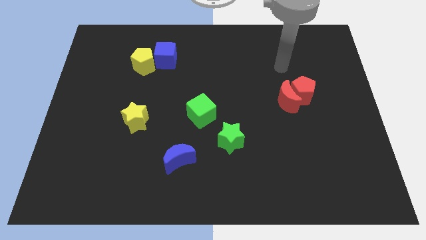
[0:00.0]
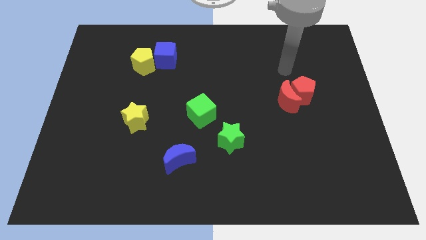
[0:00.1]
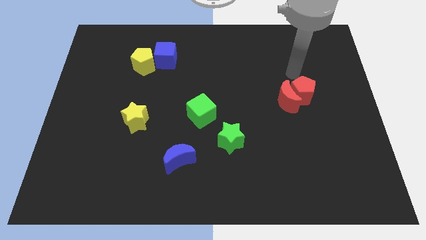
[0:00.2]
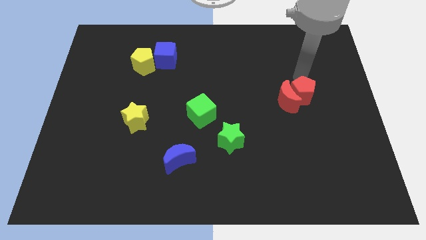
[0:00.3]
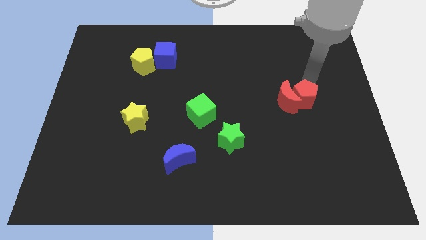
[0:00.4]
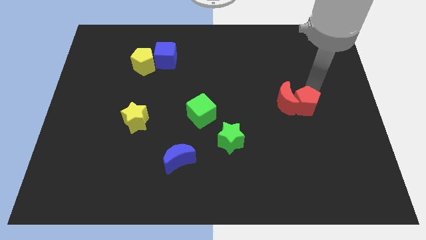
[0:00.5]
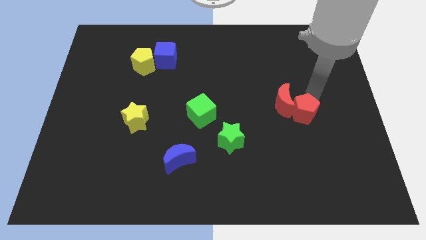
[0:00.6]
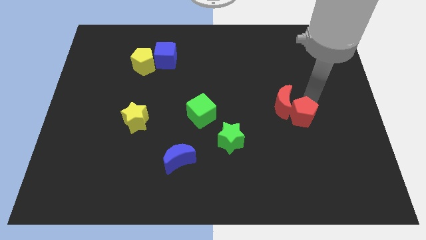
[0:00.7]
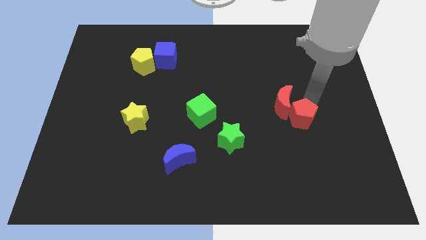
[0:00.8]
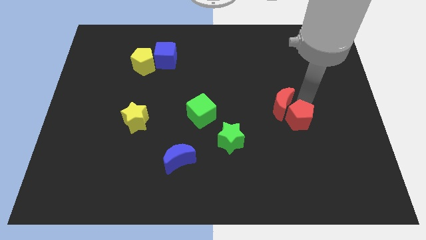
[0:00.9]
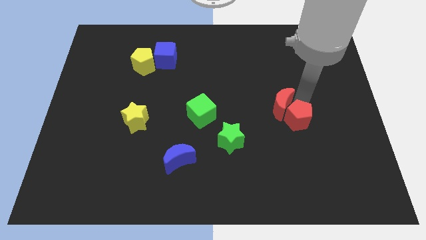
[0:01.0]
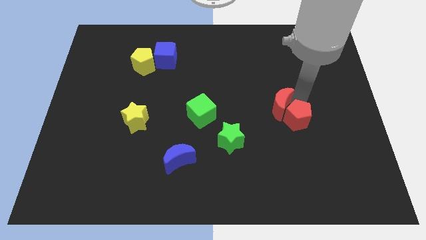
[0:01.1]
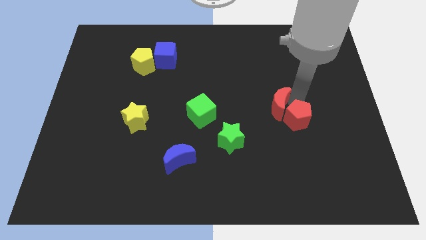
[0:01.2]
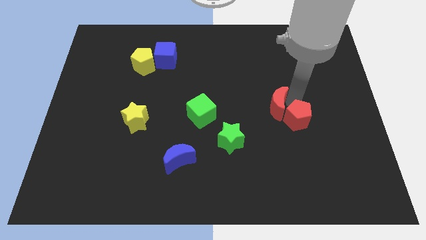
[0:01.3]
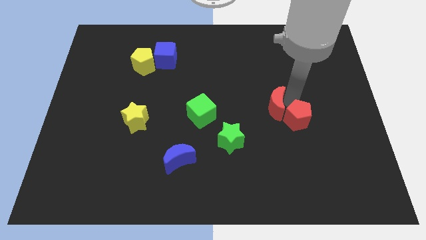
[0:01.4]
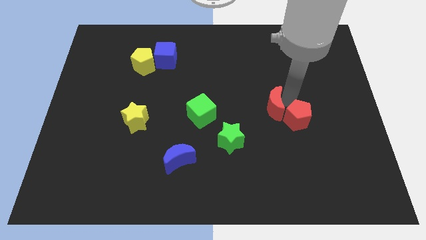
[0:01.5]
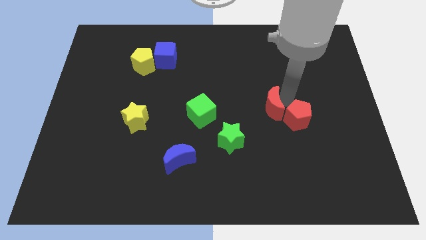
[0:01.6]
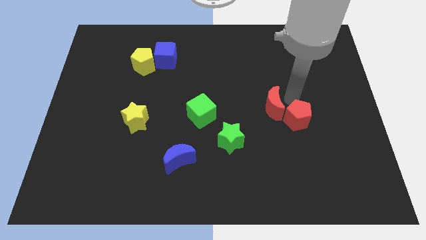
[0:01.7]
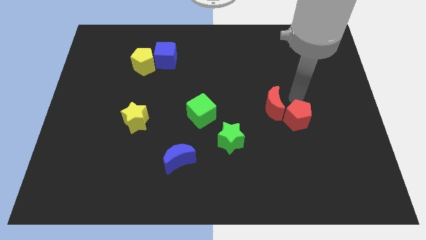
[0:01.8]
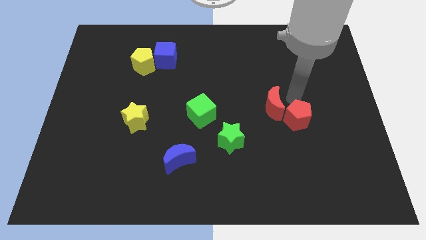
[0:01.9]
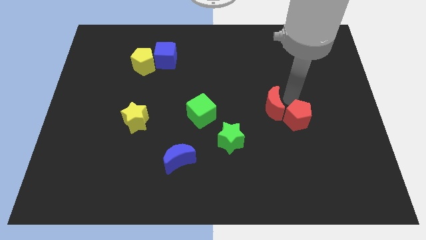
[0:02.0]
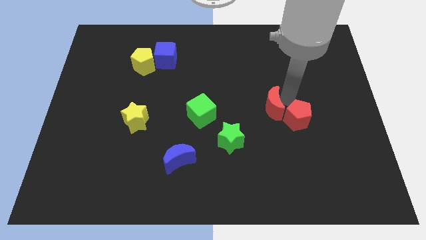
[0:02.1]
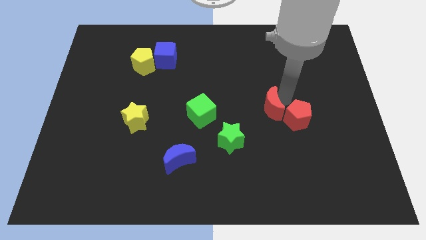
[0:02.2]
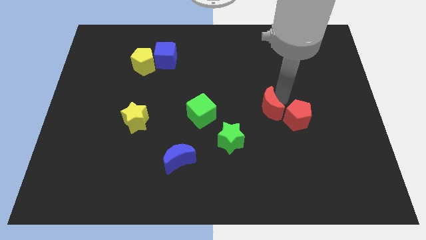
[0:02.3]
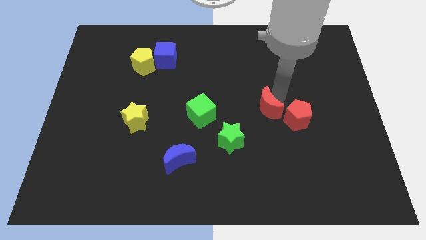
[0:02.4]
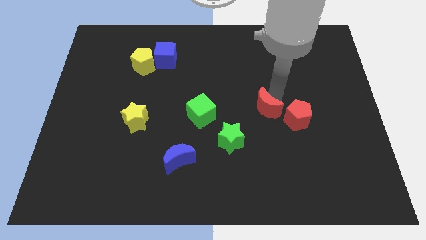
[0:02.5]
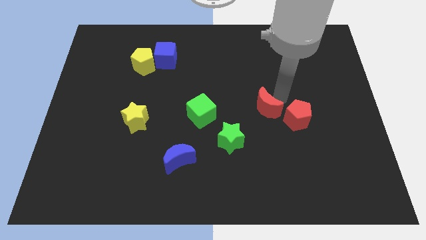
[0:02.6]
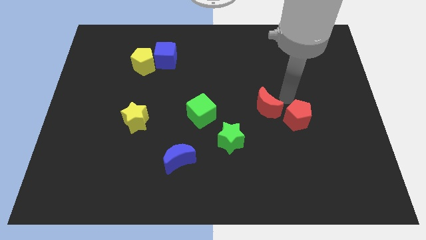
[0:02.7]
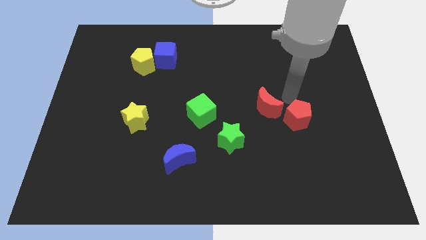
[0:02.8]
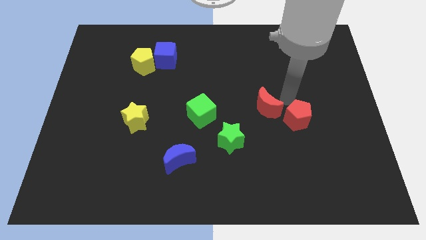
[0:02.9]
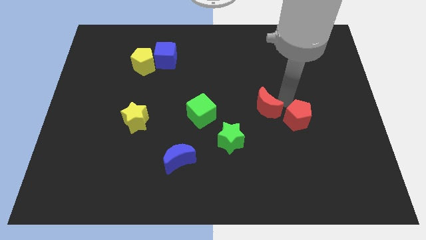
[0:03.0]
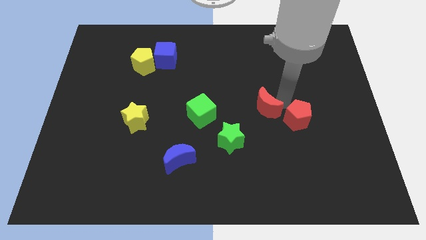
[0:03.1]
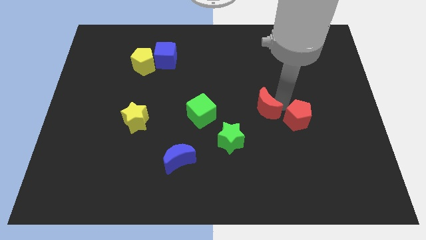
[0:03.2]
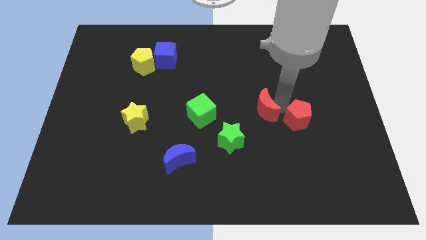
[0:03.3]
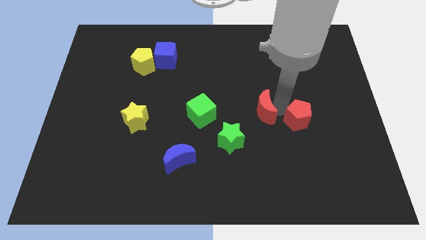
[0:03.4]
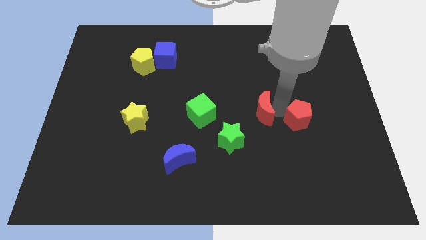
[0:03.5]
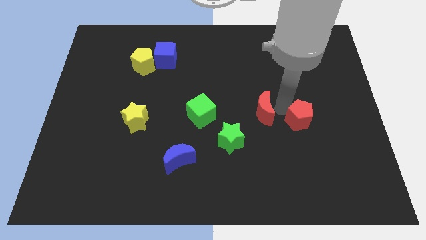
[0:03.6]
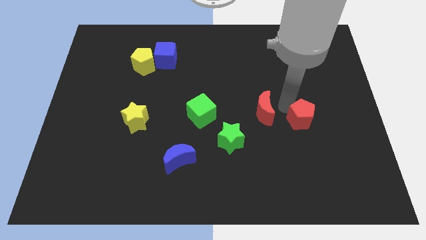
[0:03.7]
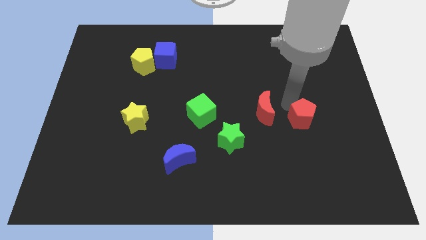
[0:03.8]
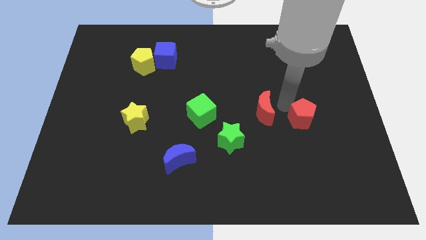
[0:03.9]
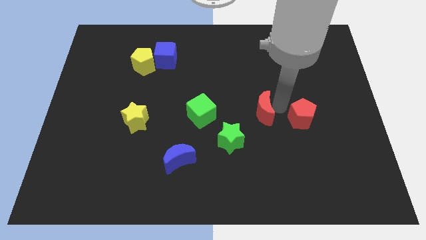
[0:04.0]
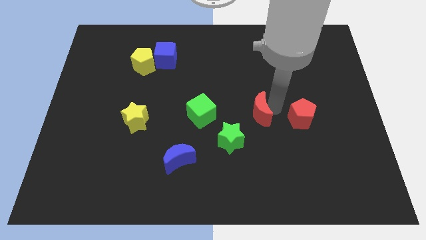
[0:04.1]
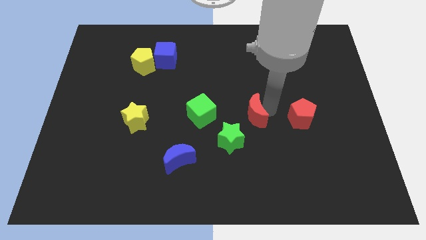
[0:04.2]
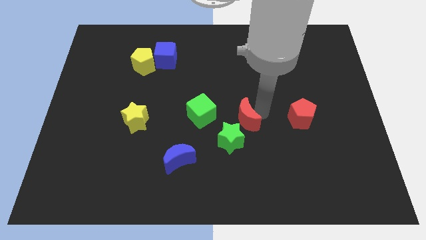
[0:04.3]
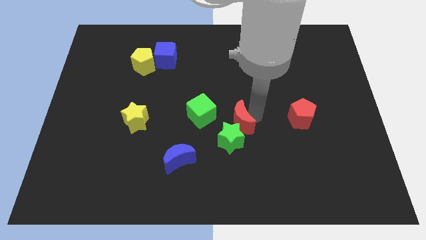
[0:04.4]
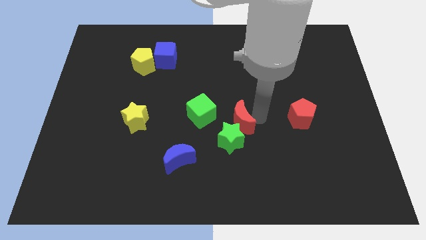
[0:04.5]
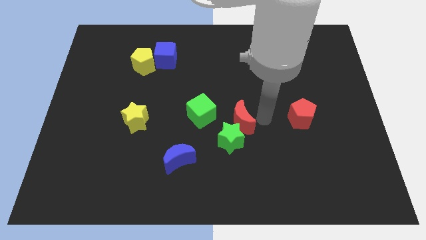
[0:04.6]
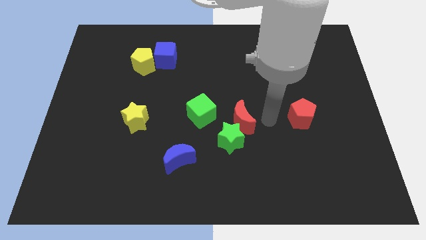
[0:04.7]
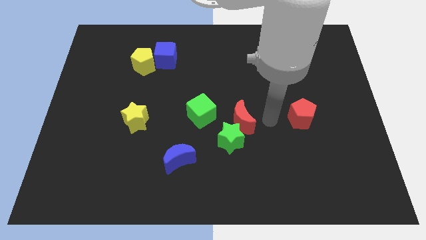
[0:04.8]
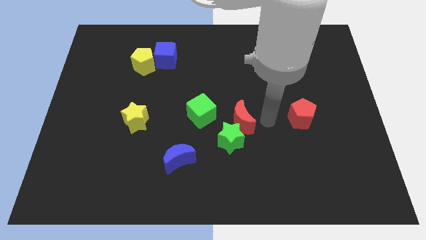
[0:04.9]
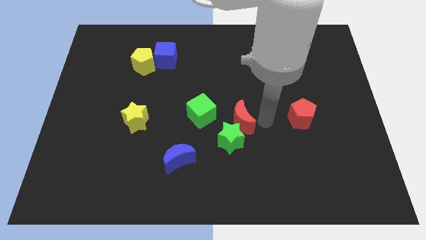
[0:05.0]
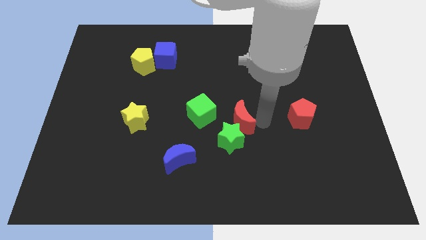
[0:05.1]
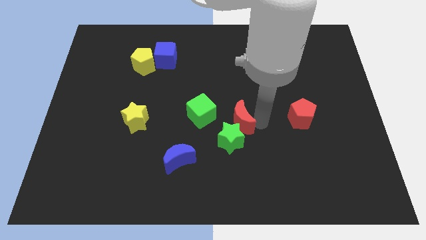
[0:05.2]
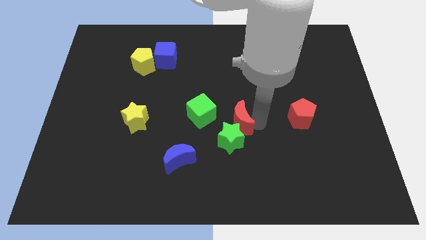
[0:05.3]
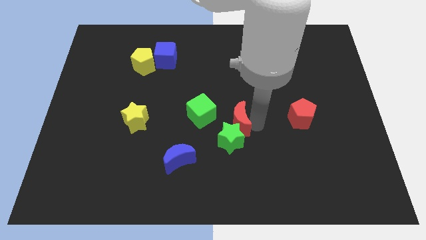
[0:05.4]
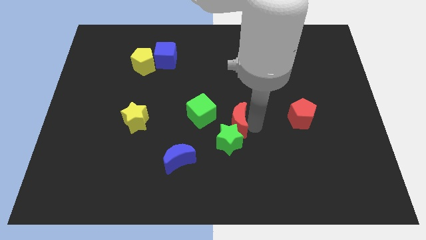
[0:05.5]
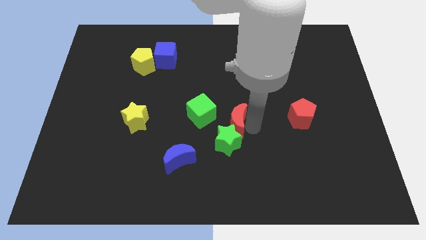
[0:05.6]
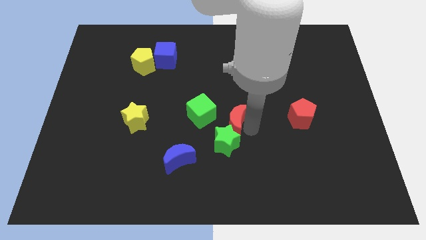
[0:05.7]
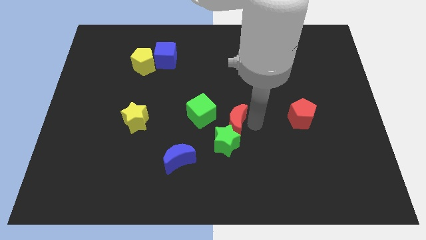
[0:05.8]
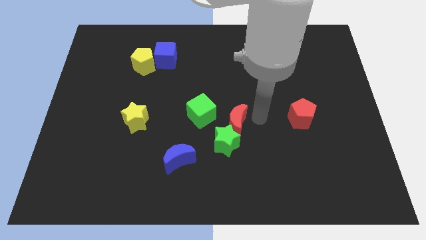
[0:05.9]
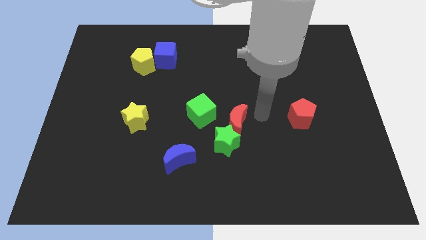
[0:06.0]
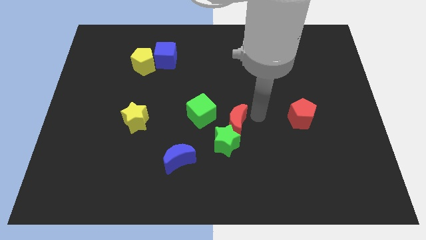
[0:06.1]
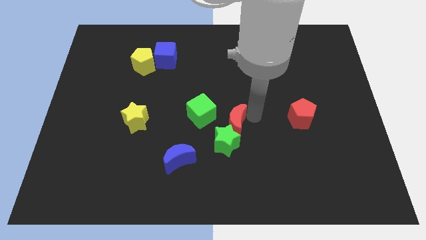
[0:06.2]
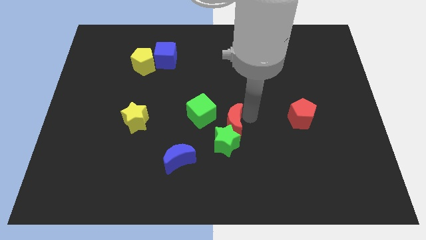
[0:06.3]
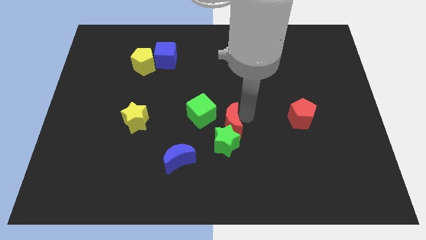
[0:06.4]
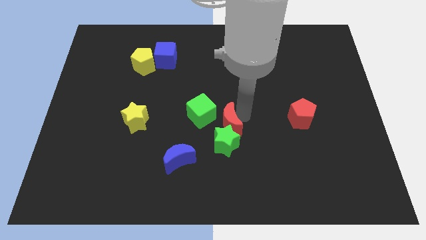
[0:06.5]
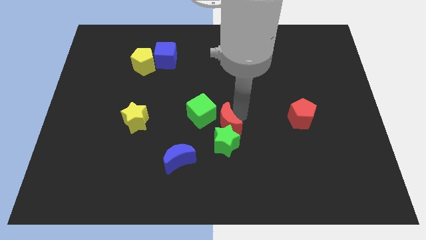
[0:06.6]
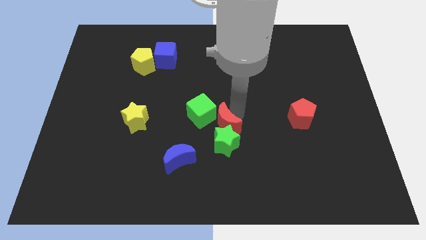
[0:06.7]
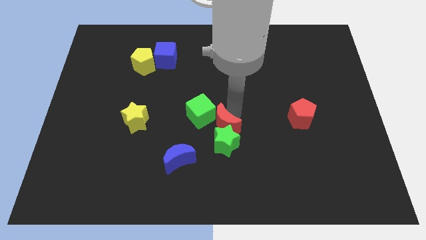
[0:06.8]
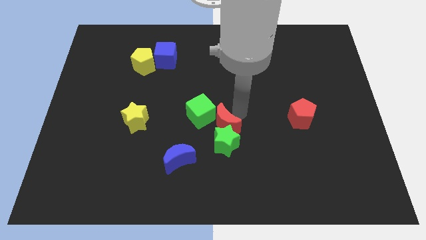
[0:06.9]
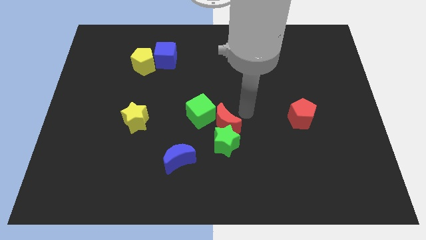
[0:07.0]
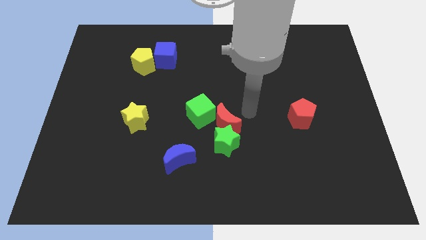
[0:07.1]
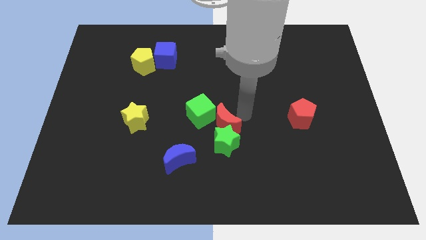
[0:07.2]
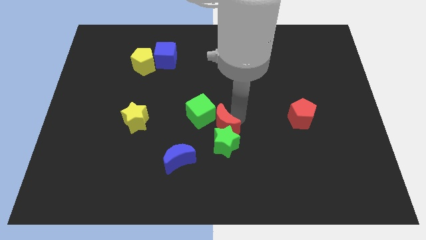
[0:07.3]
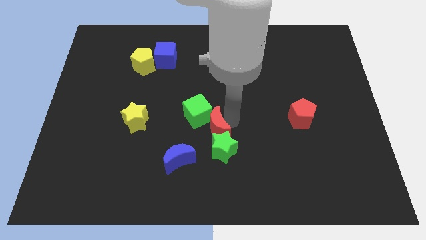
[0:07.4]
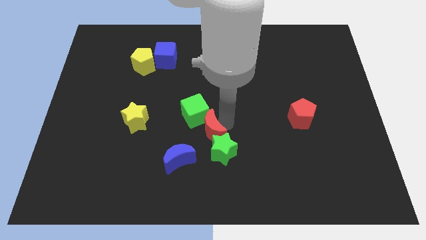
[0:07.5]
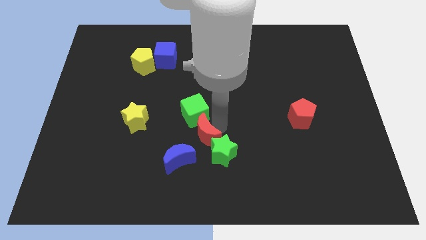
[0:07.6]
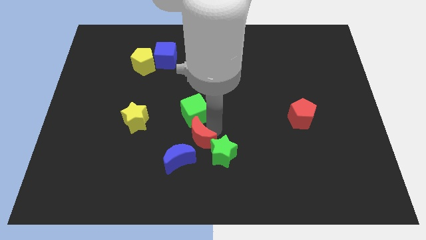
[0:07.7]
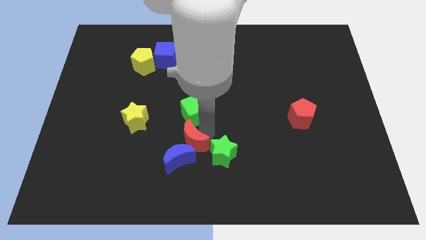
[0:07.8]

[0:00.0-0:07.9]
move the red moon close to the blue moon
